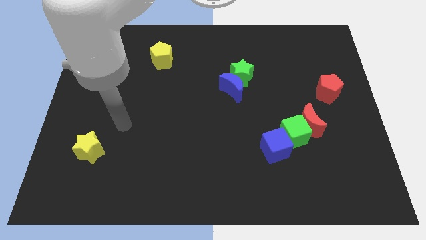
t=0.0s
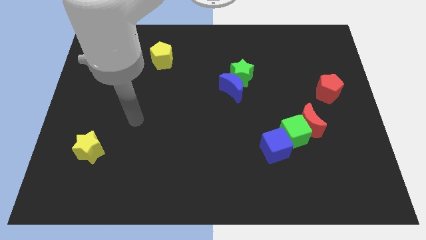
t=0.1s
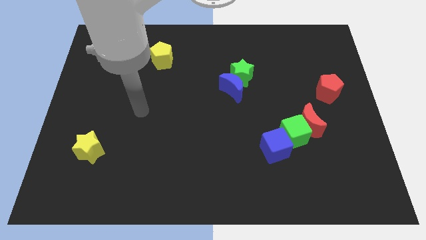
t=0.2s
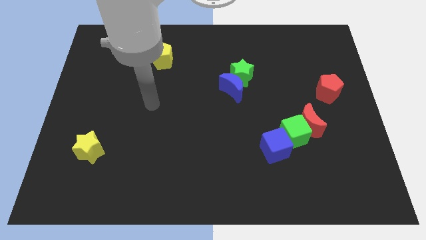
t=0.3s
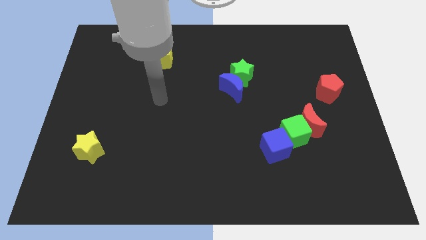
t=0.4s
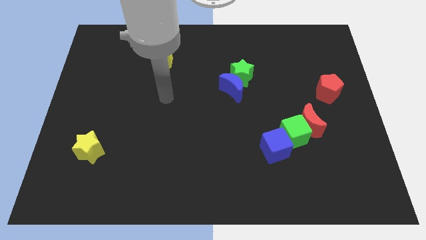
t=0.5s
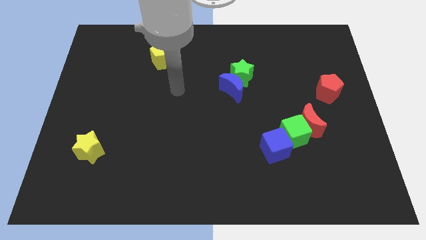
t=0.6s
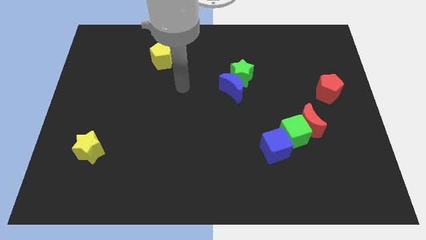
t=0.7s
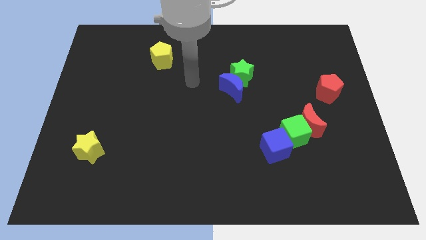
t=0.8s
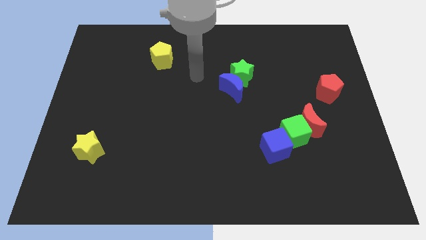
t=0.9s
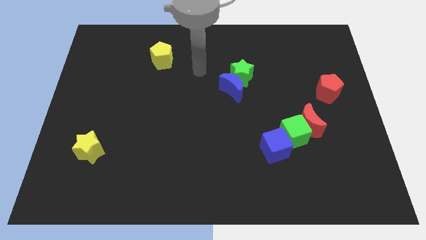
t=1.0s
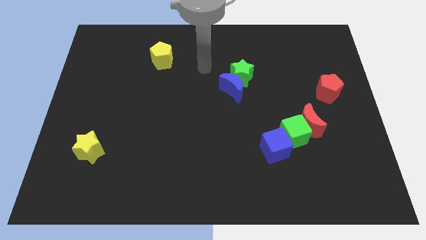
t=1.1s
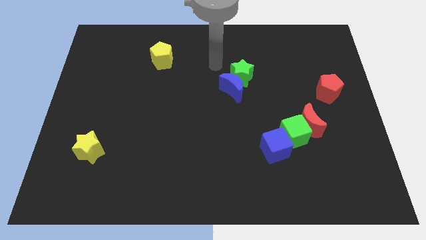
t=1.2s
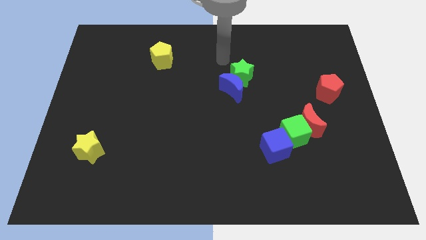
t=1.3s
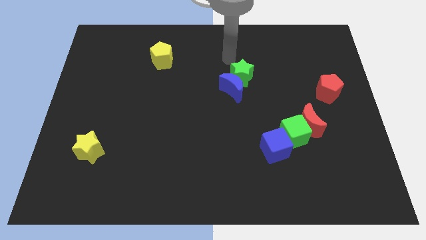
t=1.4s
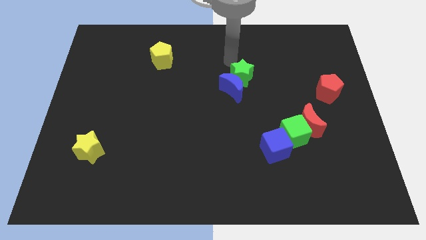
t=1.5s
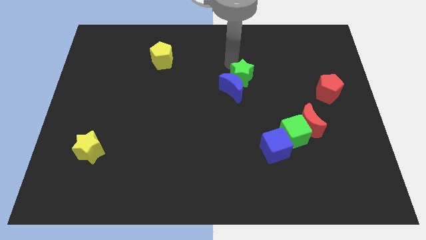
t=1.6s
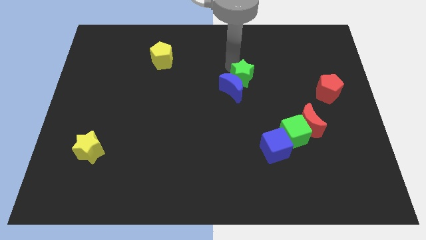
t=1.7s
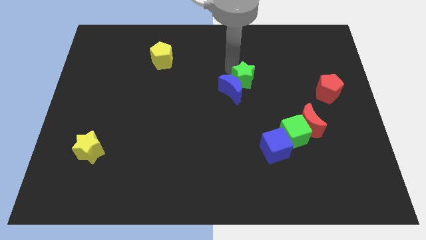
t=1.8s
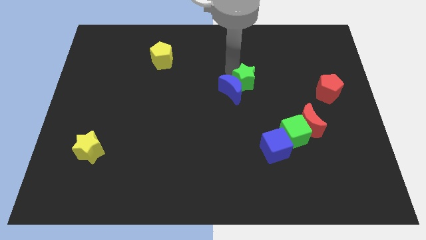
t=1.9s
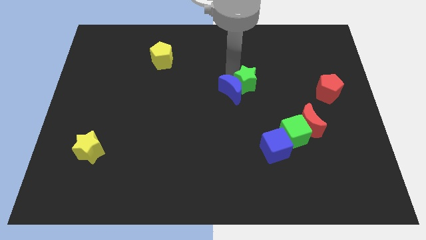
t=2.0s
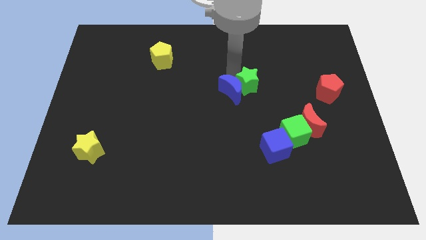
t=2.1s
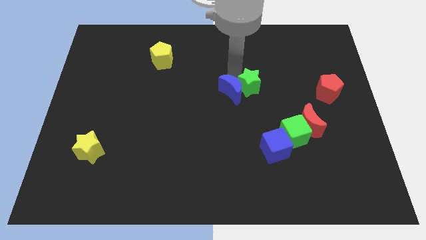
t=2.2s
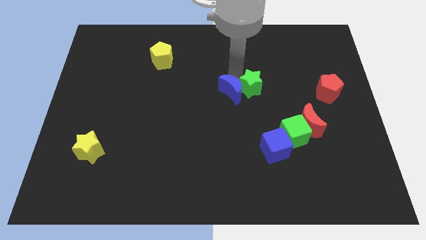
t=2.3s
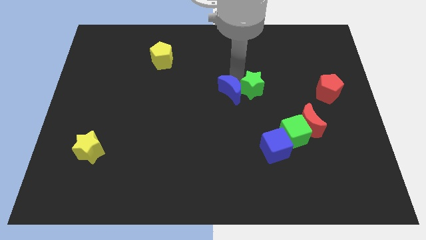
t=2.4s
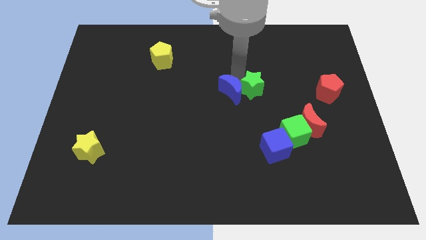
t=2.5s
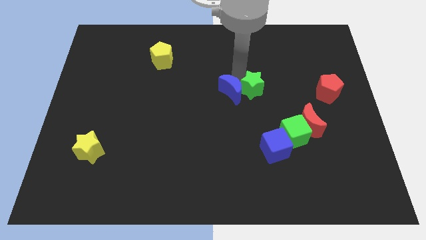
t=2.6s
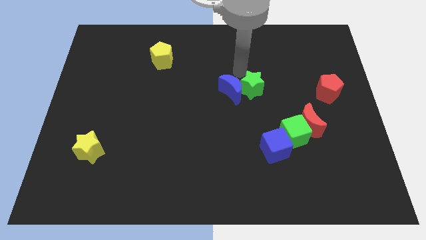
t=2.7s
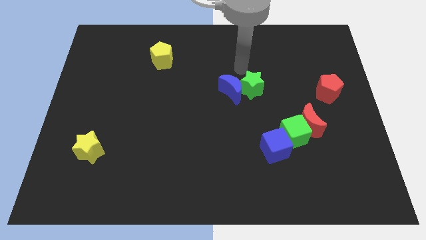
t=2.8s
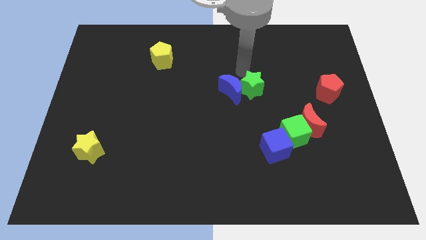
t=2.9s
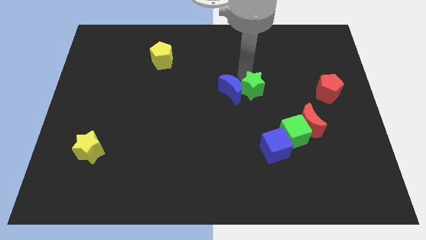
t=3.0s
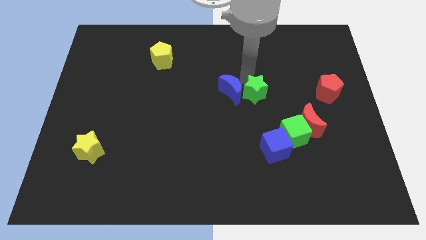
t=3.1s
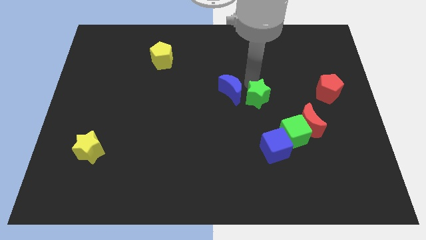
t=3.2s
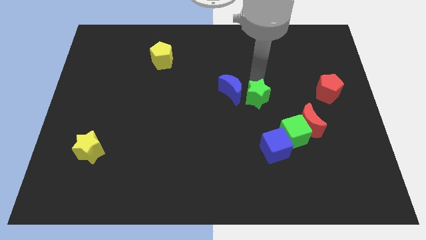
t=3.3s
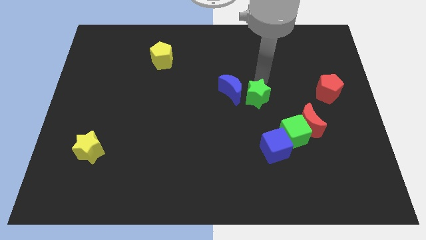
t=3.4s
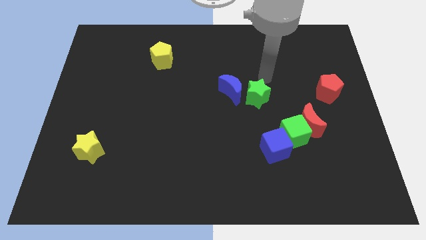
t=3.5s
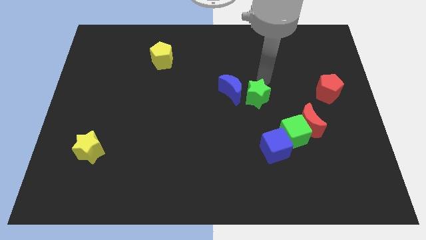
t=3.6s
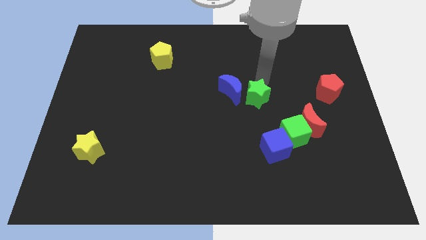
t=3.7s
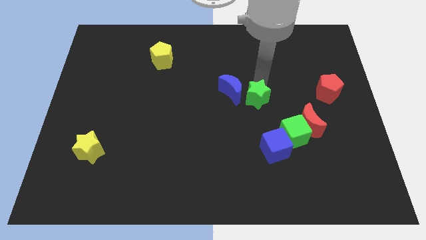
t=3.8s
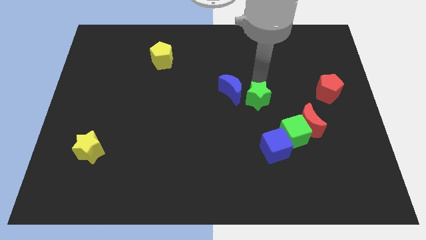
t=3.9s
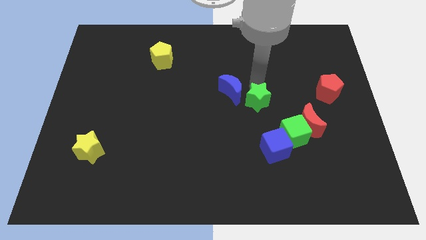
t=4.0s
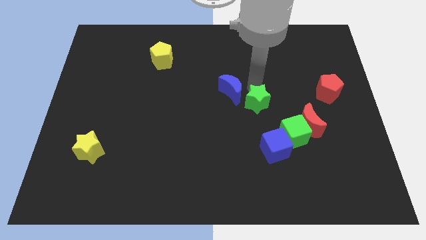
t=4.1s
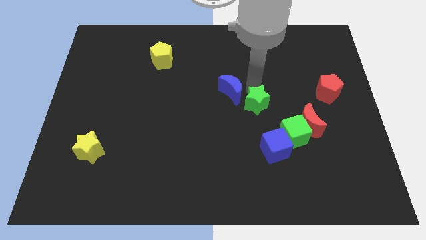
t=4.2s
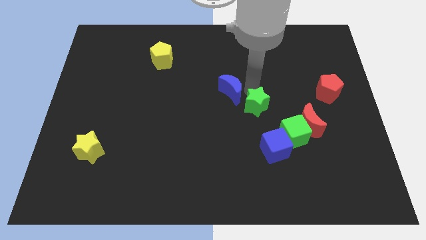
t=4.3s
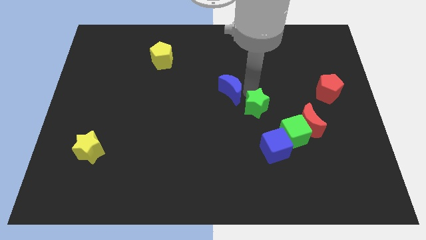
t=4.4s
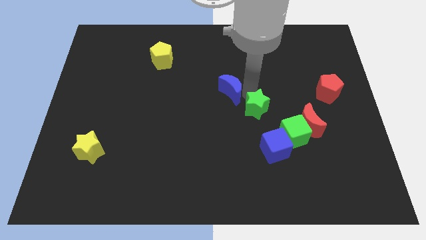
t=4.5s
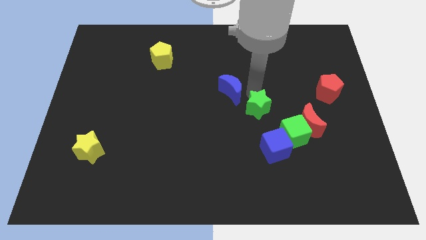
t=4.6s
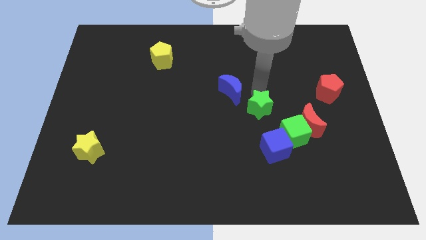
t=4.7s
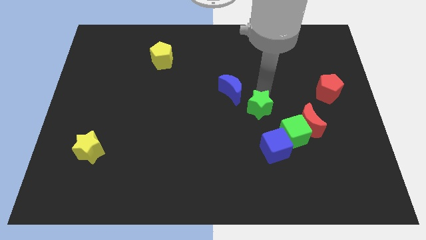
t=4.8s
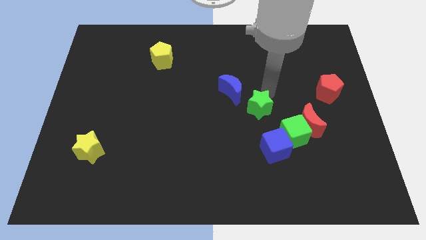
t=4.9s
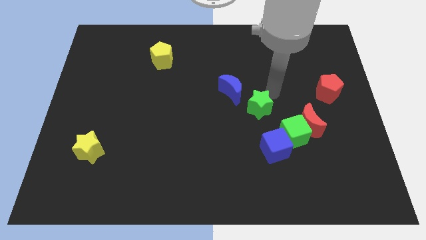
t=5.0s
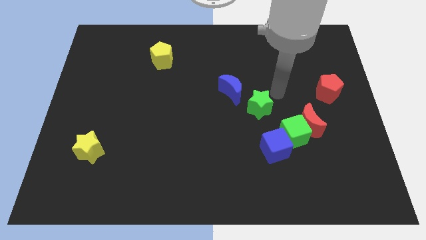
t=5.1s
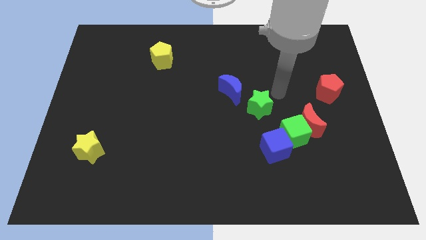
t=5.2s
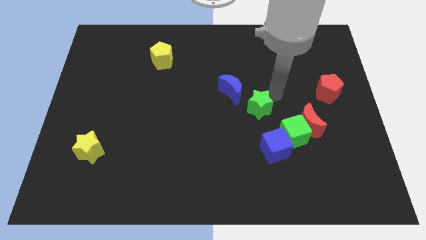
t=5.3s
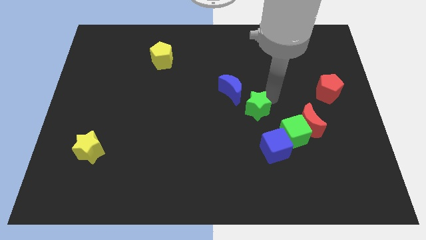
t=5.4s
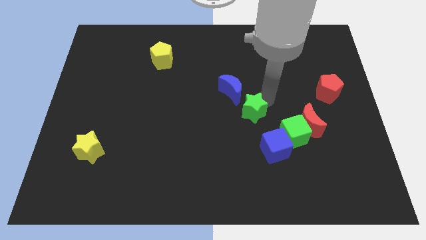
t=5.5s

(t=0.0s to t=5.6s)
slide the green star to the top left side of the blue cube

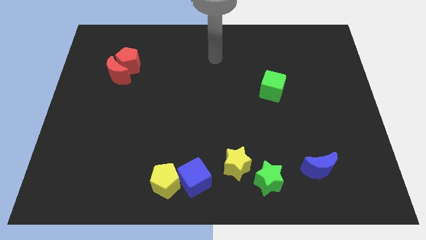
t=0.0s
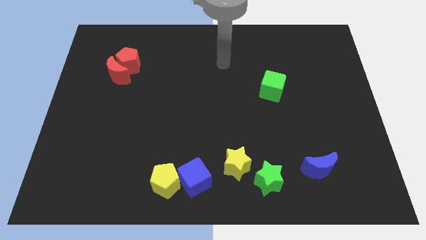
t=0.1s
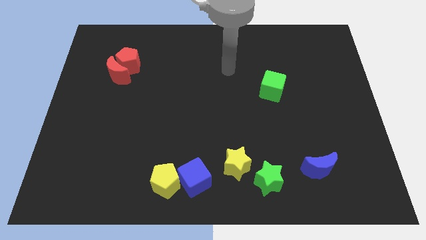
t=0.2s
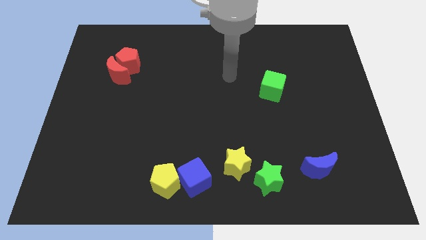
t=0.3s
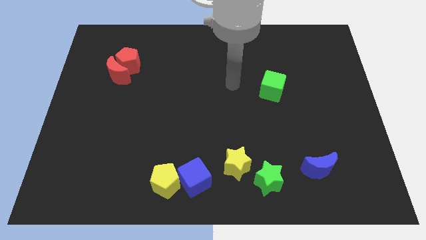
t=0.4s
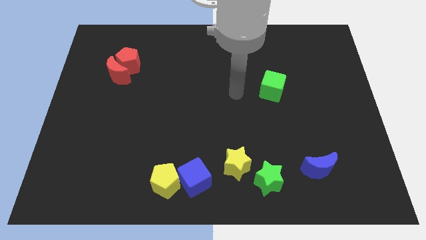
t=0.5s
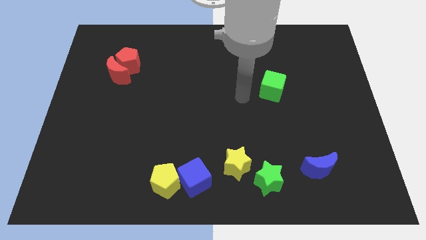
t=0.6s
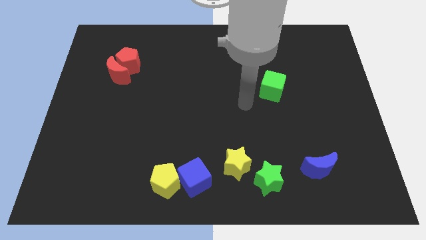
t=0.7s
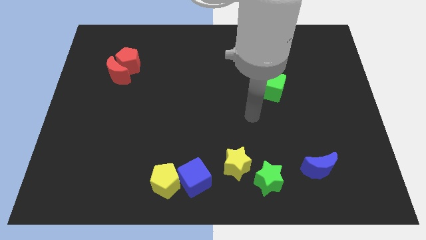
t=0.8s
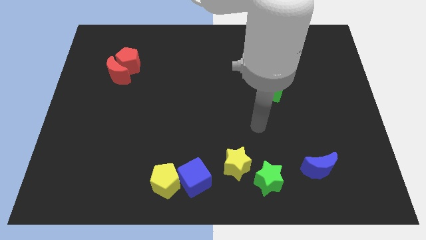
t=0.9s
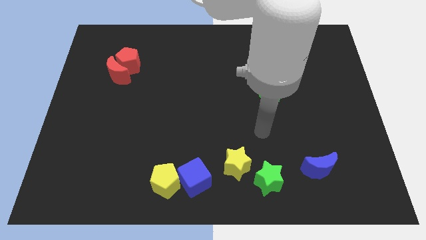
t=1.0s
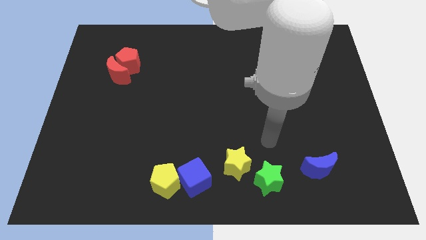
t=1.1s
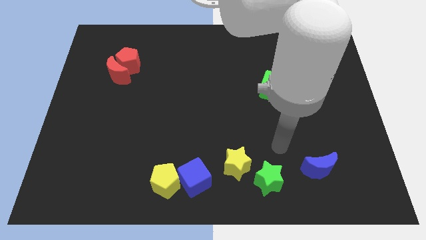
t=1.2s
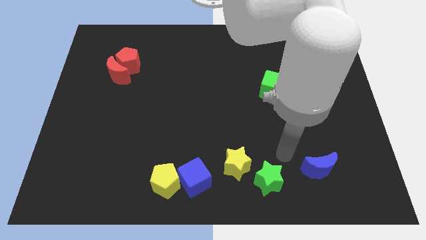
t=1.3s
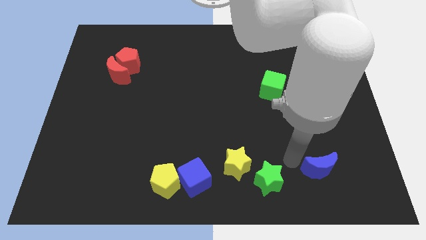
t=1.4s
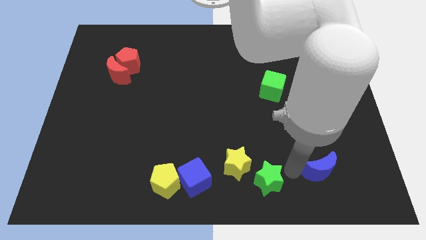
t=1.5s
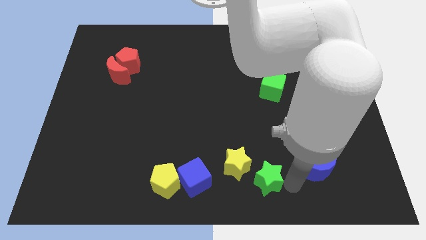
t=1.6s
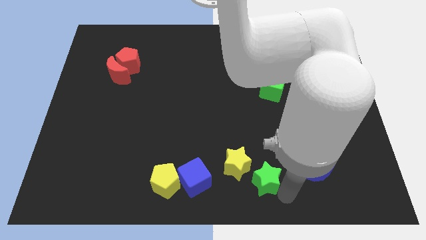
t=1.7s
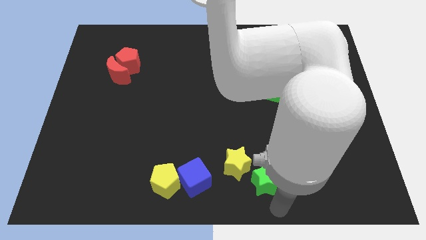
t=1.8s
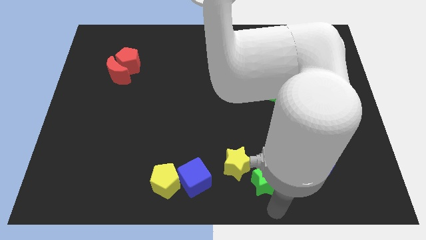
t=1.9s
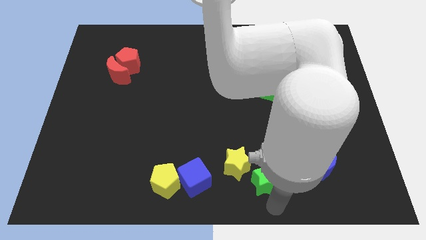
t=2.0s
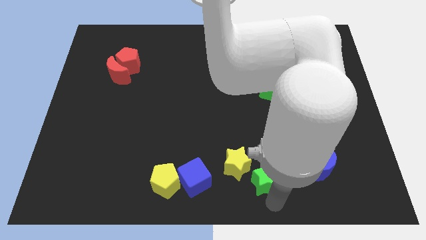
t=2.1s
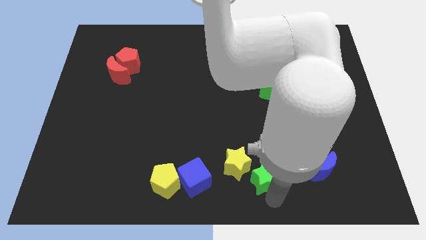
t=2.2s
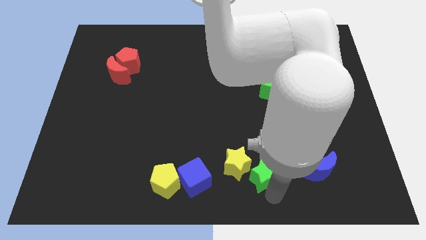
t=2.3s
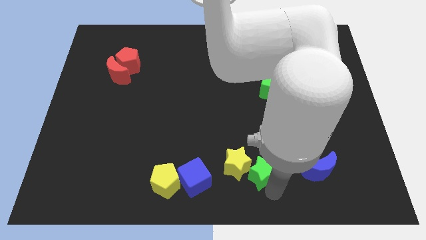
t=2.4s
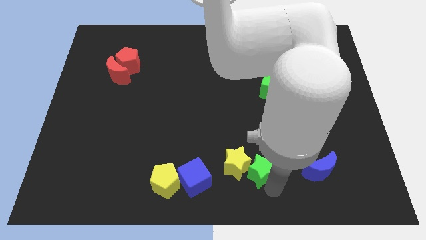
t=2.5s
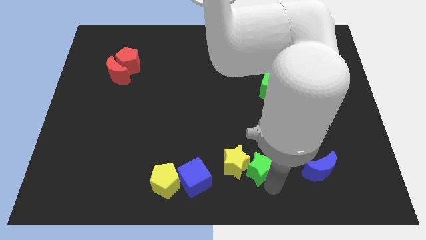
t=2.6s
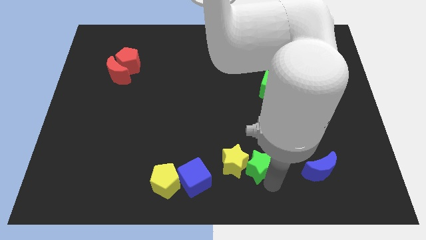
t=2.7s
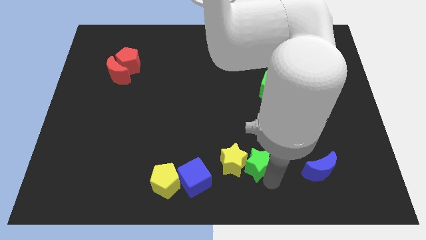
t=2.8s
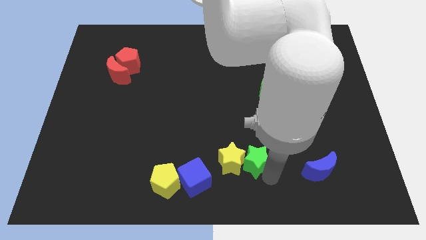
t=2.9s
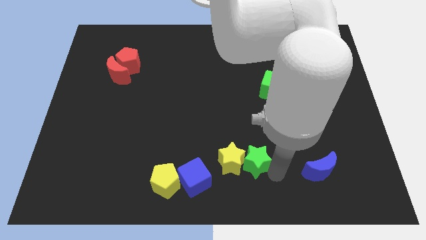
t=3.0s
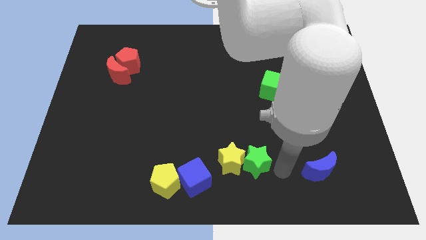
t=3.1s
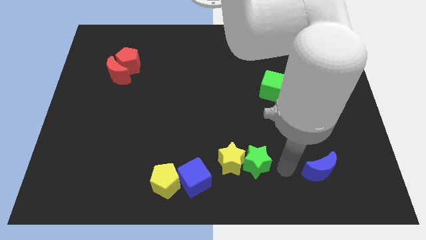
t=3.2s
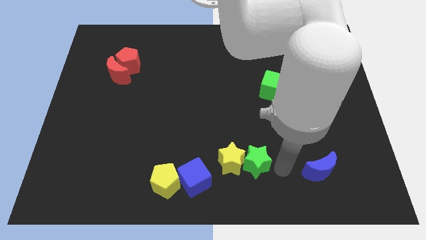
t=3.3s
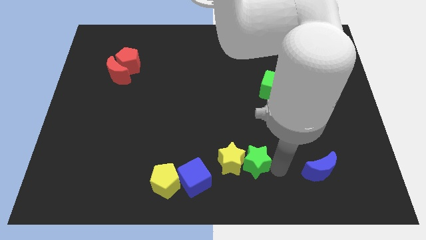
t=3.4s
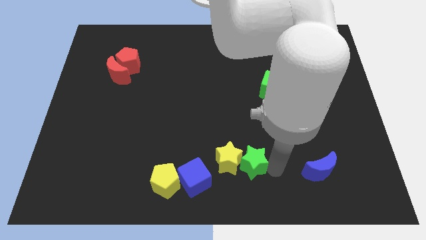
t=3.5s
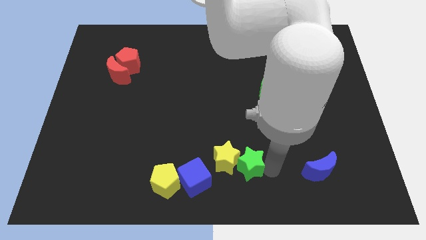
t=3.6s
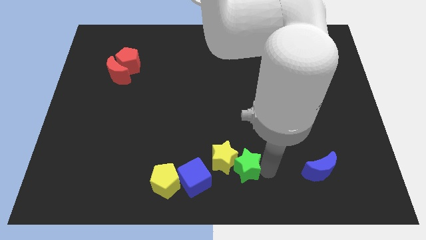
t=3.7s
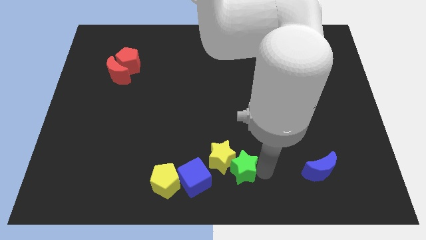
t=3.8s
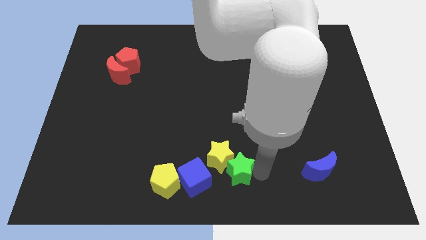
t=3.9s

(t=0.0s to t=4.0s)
slide the green star diagonally up and to the right of the blue cube
